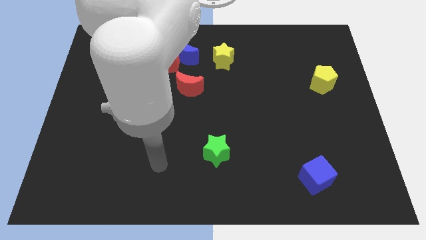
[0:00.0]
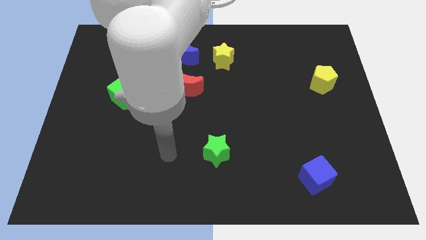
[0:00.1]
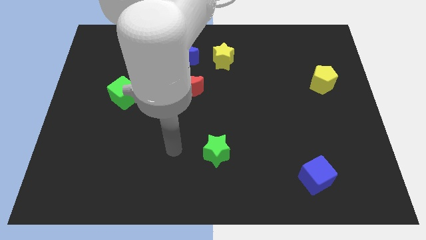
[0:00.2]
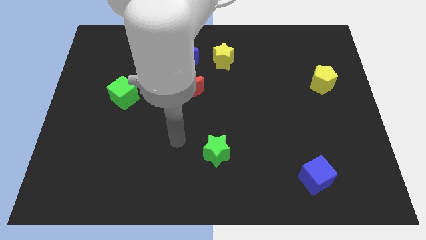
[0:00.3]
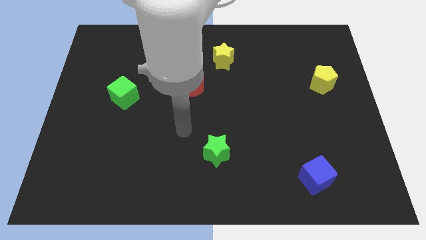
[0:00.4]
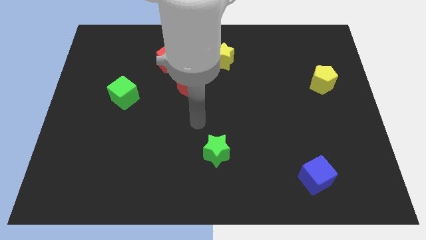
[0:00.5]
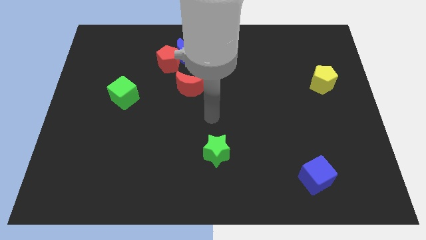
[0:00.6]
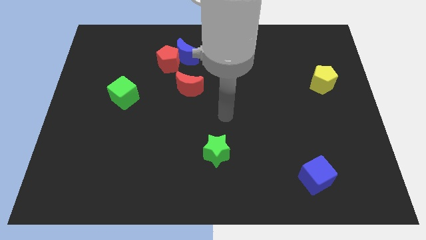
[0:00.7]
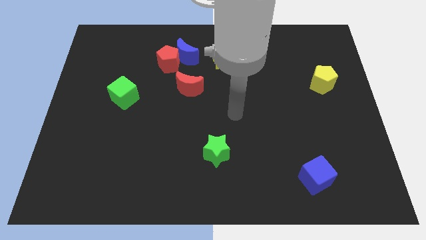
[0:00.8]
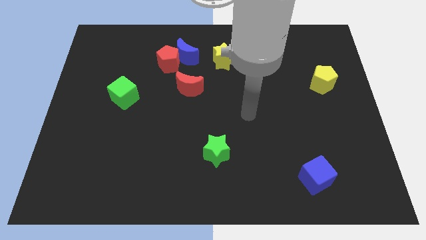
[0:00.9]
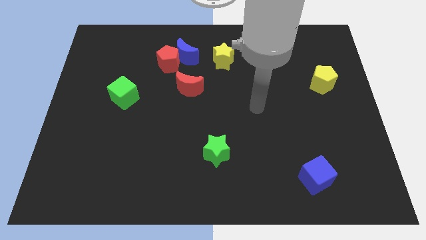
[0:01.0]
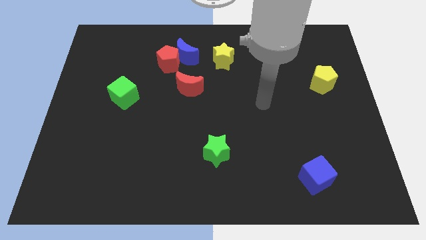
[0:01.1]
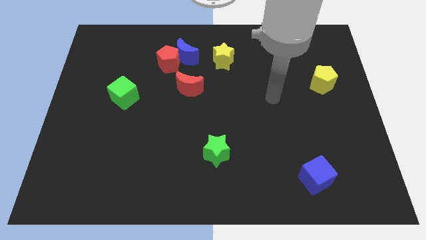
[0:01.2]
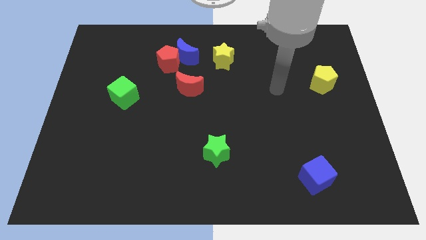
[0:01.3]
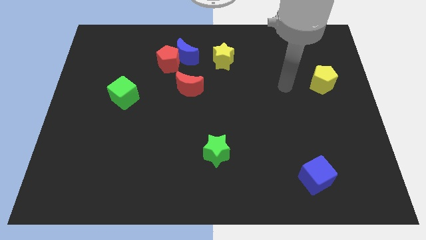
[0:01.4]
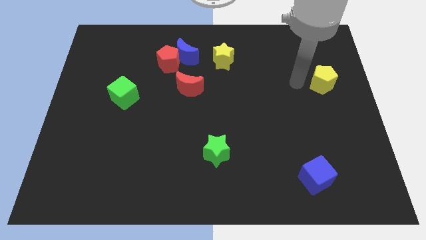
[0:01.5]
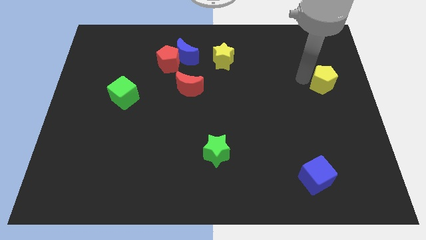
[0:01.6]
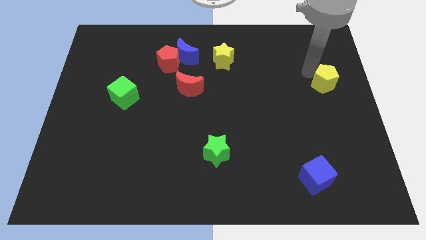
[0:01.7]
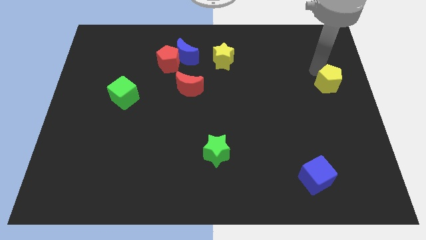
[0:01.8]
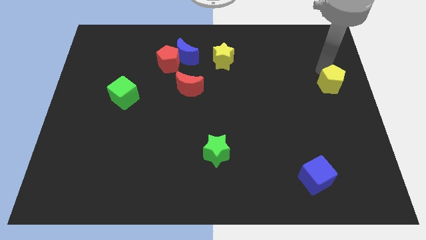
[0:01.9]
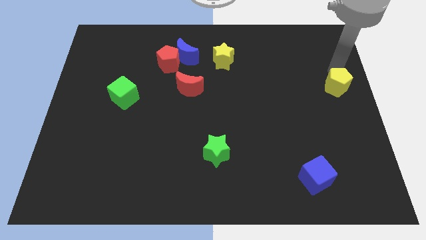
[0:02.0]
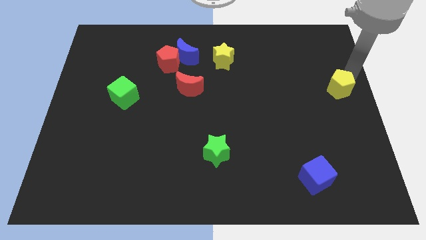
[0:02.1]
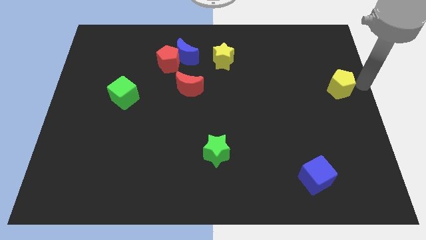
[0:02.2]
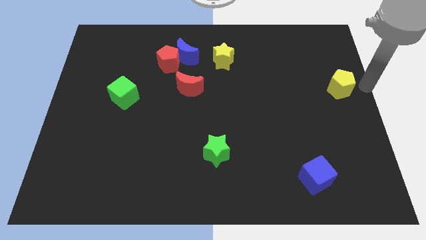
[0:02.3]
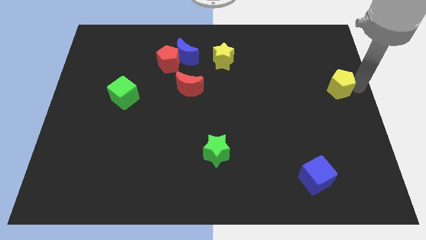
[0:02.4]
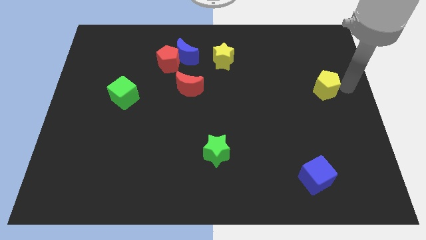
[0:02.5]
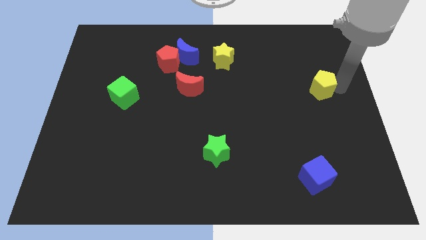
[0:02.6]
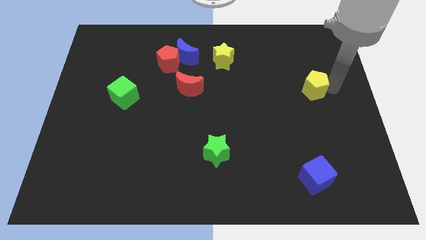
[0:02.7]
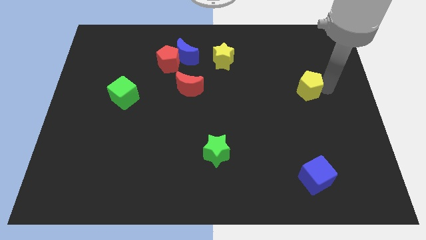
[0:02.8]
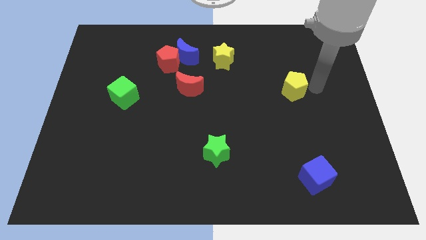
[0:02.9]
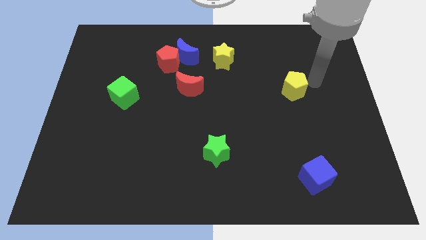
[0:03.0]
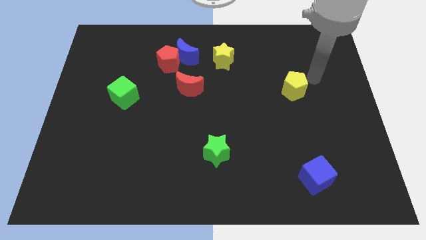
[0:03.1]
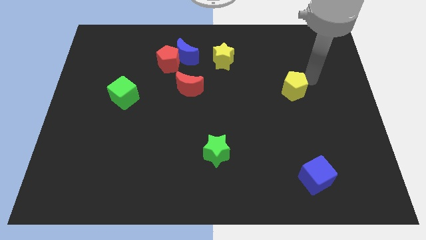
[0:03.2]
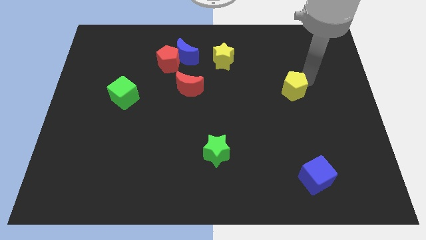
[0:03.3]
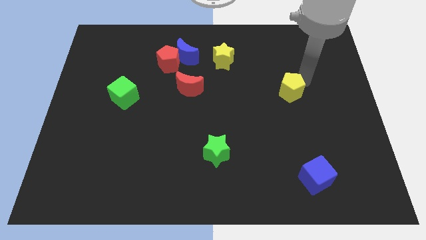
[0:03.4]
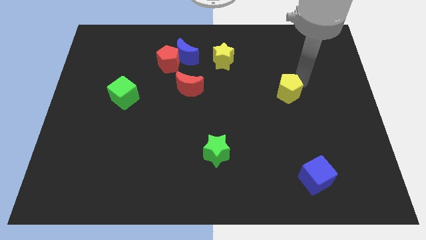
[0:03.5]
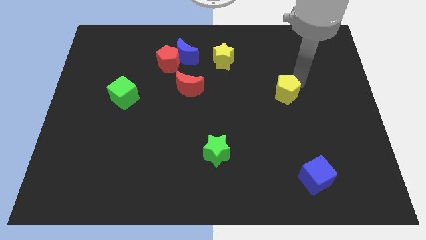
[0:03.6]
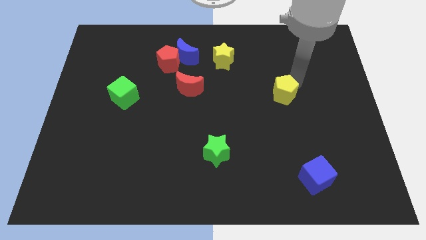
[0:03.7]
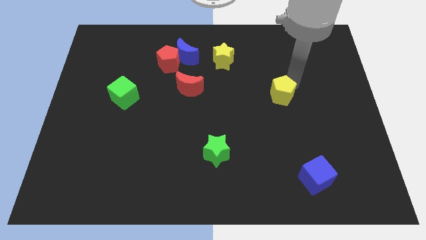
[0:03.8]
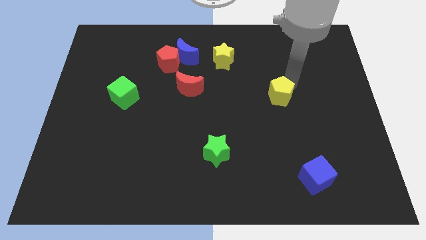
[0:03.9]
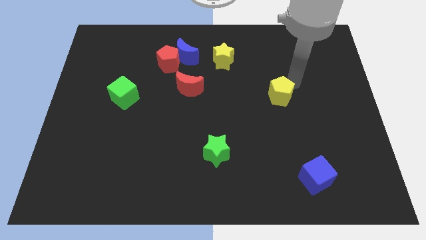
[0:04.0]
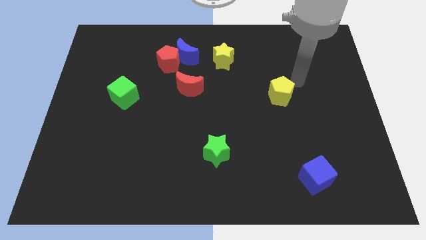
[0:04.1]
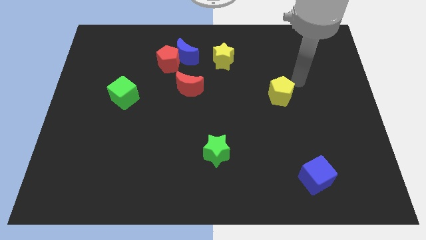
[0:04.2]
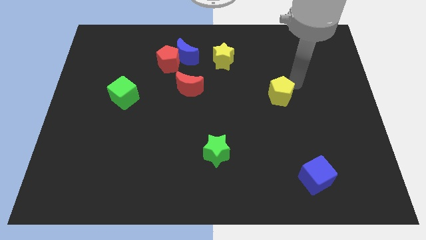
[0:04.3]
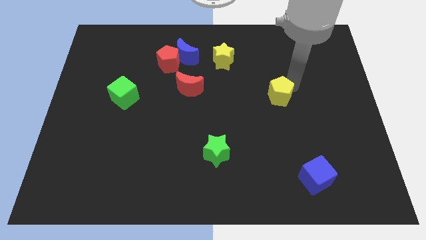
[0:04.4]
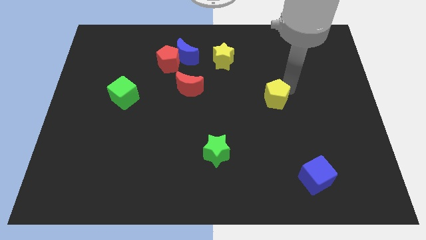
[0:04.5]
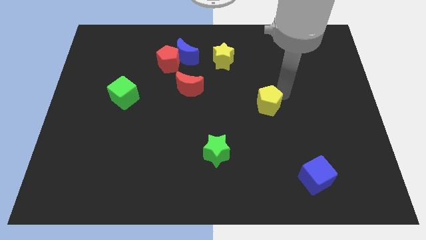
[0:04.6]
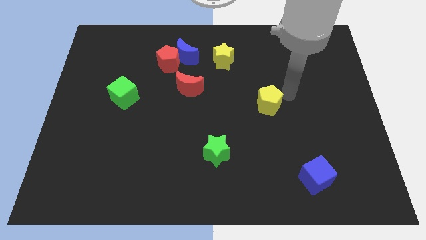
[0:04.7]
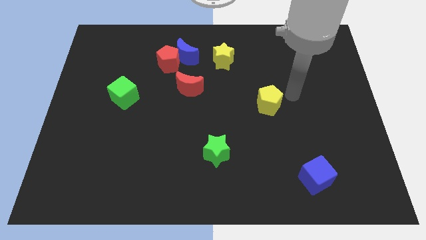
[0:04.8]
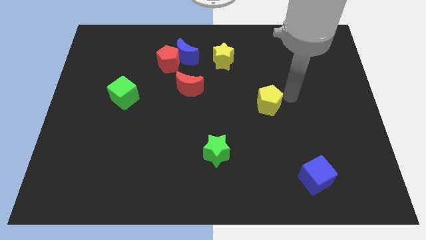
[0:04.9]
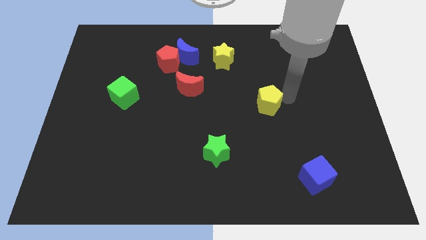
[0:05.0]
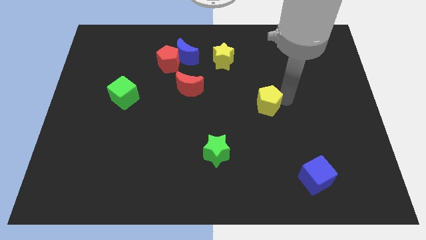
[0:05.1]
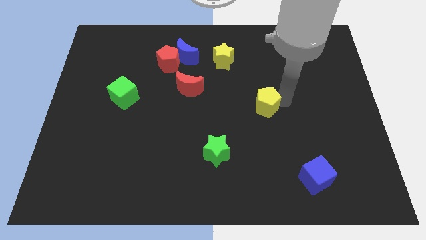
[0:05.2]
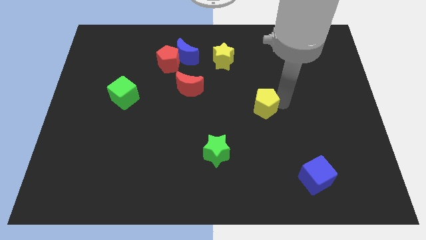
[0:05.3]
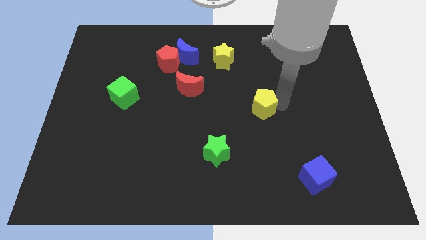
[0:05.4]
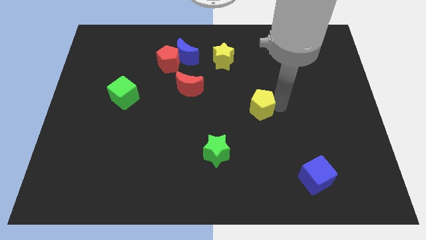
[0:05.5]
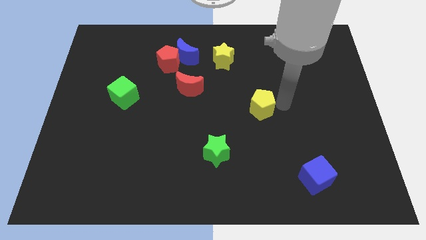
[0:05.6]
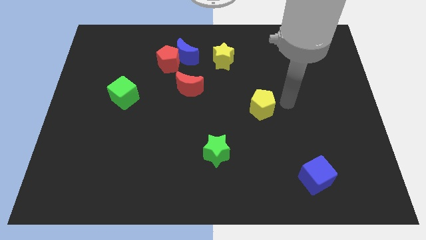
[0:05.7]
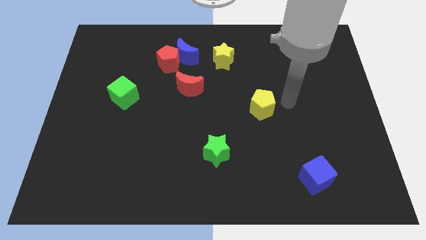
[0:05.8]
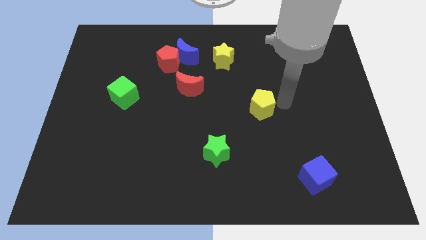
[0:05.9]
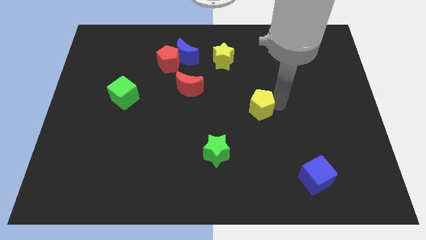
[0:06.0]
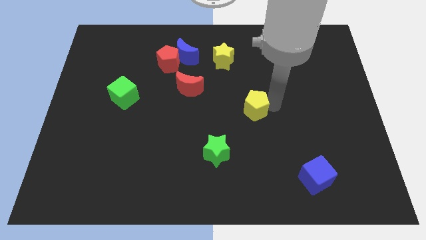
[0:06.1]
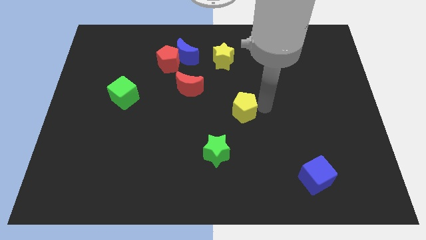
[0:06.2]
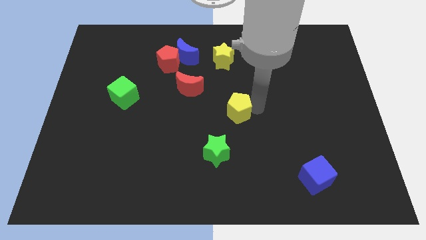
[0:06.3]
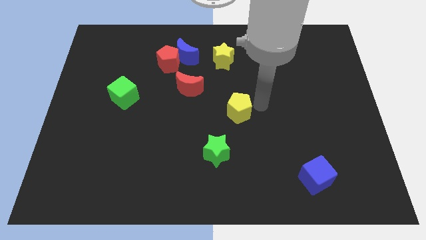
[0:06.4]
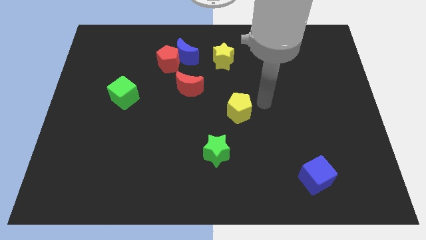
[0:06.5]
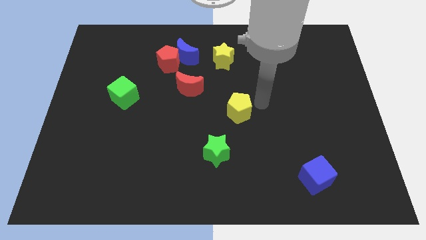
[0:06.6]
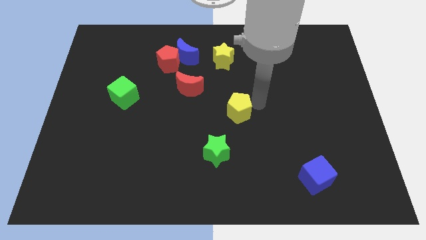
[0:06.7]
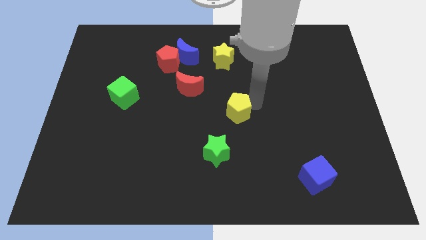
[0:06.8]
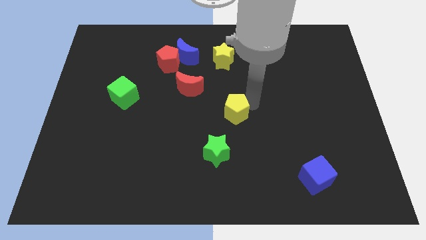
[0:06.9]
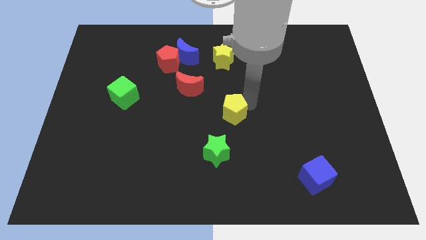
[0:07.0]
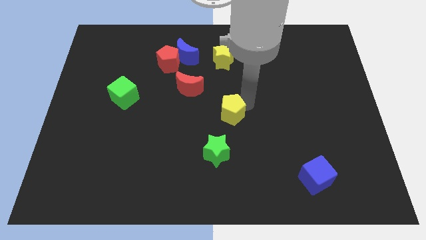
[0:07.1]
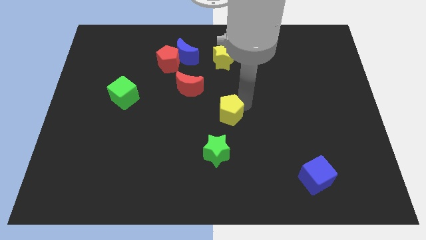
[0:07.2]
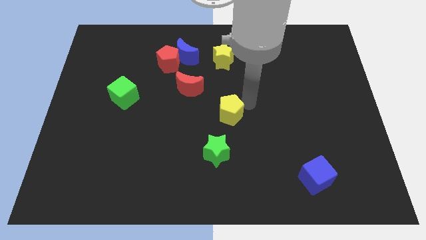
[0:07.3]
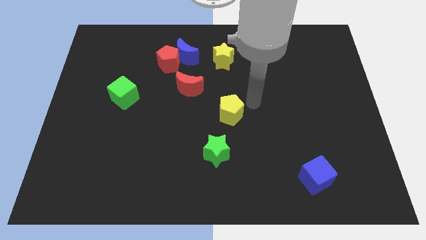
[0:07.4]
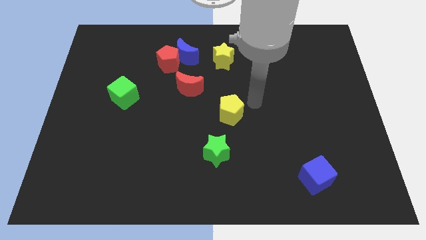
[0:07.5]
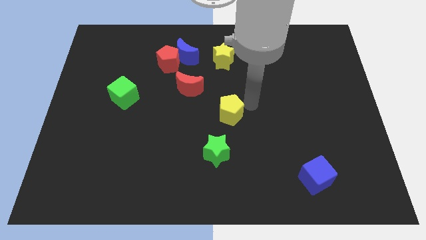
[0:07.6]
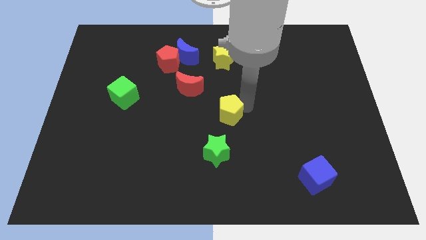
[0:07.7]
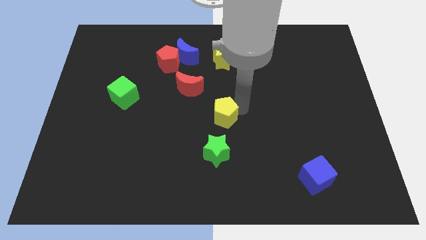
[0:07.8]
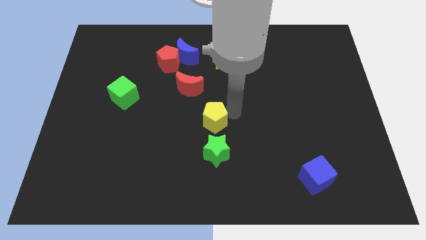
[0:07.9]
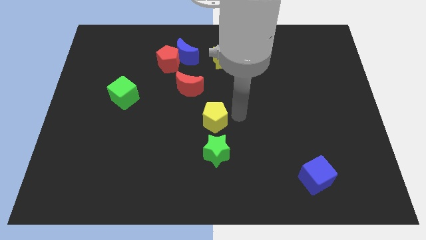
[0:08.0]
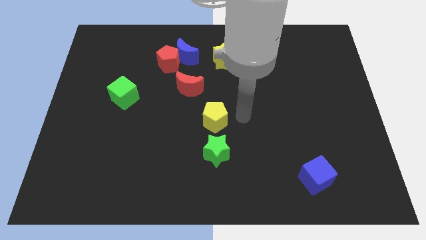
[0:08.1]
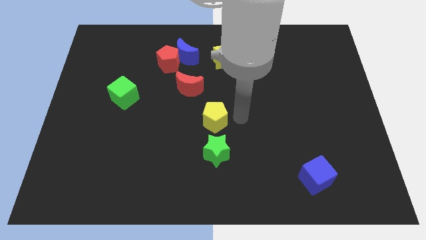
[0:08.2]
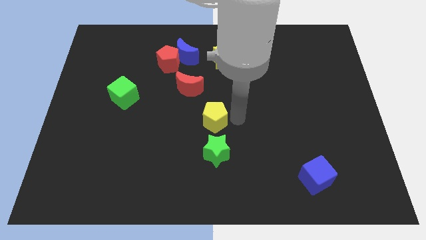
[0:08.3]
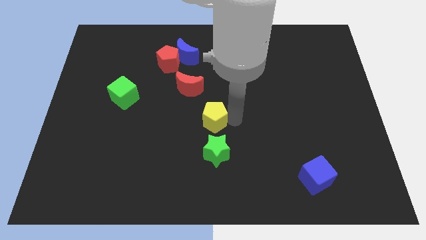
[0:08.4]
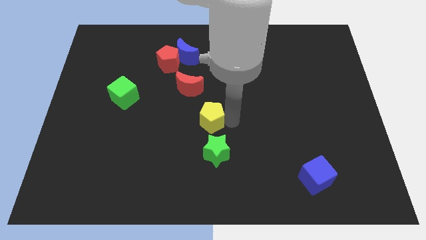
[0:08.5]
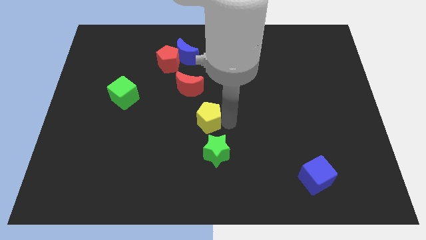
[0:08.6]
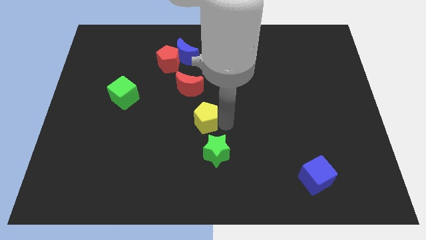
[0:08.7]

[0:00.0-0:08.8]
move the yellow pentagon below the red moon
